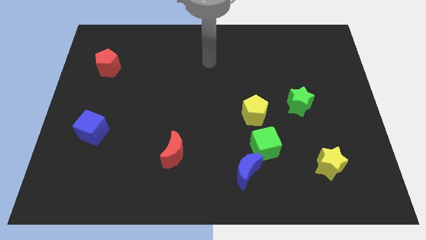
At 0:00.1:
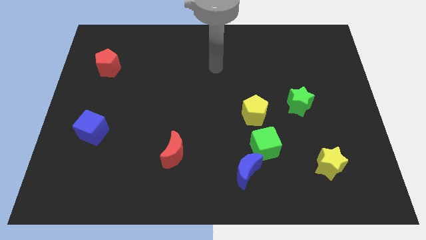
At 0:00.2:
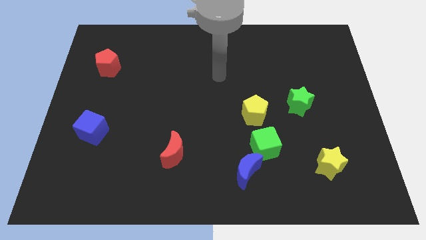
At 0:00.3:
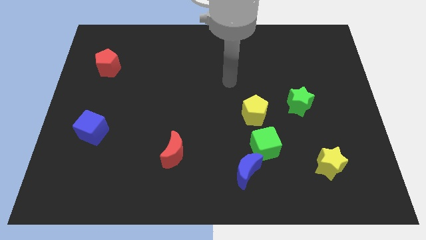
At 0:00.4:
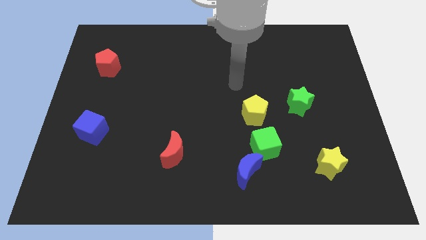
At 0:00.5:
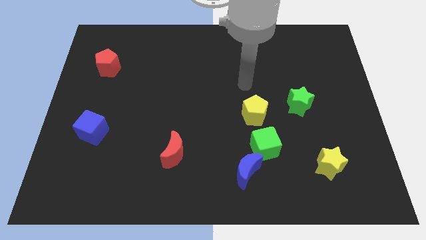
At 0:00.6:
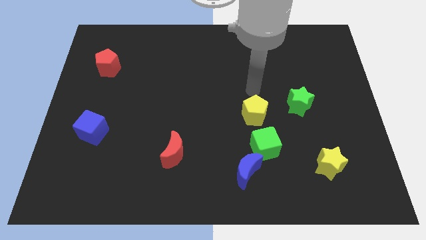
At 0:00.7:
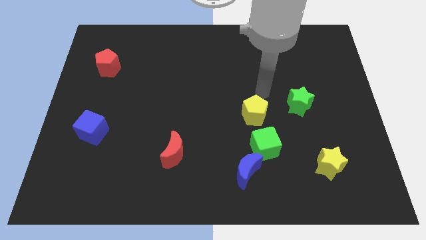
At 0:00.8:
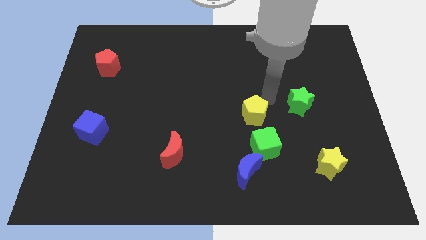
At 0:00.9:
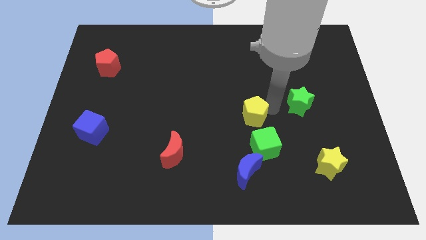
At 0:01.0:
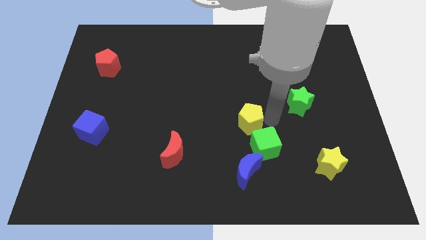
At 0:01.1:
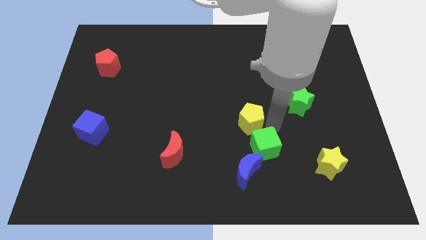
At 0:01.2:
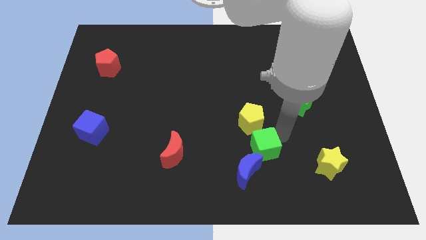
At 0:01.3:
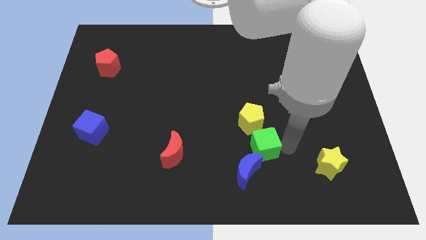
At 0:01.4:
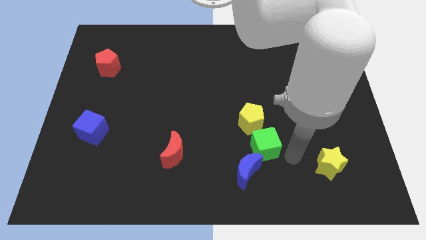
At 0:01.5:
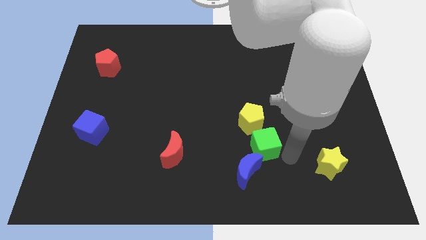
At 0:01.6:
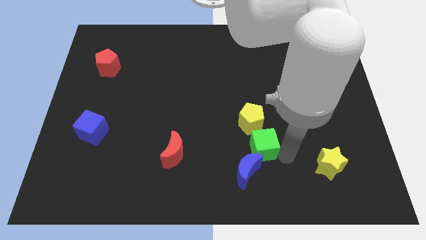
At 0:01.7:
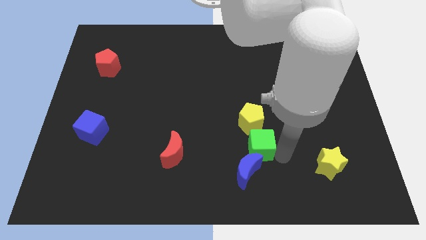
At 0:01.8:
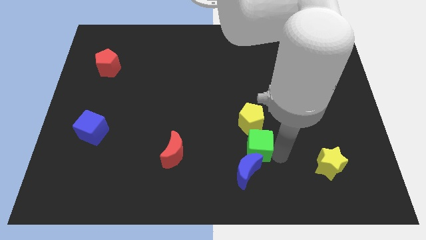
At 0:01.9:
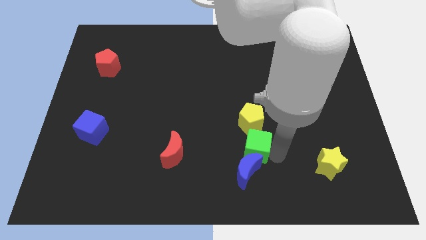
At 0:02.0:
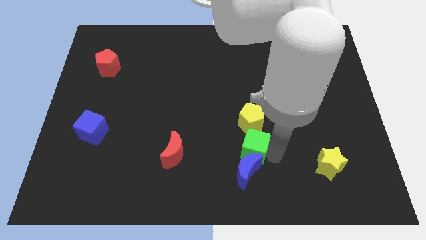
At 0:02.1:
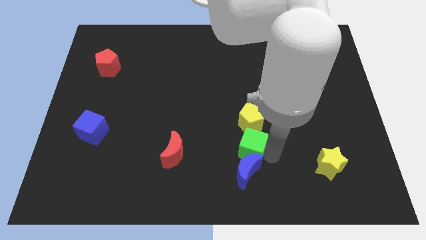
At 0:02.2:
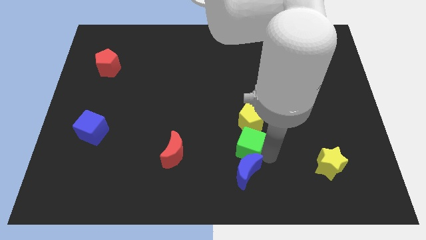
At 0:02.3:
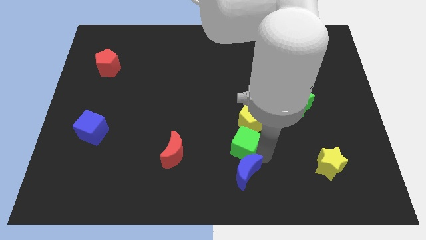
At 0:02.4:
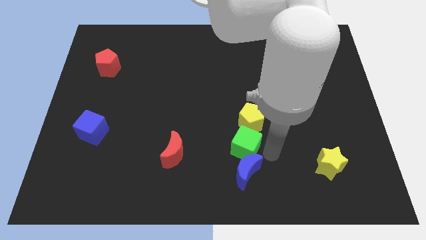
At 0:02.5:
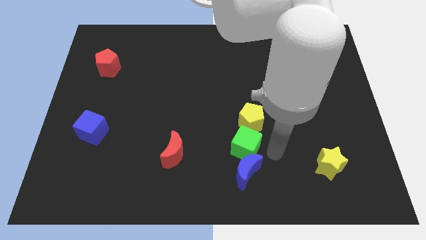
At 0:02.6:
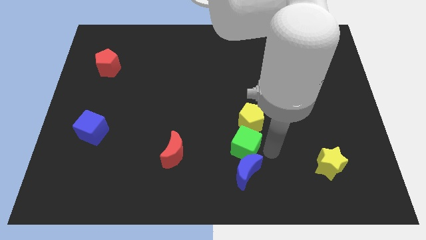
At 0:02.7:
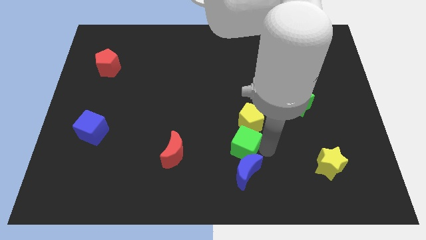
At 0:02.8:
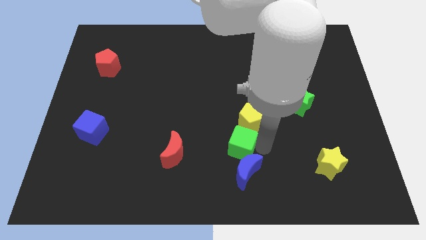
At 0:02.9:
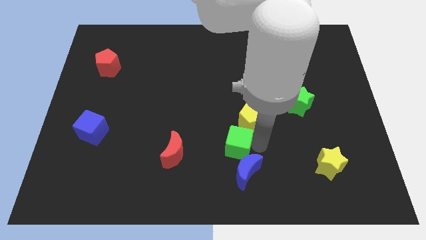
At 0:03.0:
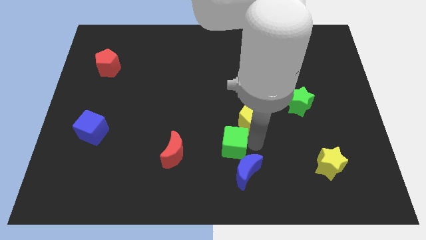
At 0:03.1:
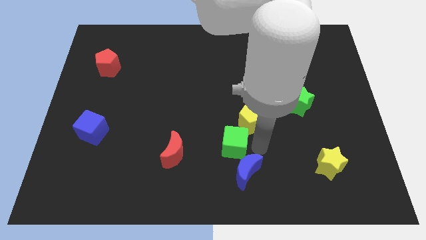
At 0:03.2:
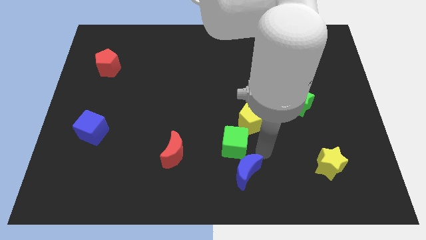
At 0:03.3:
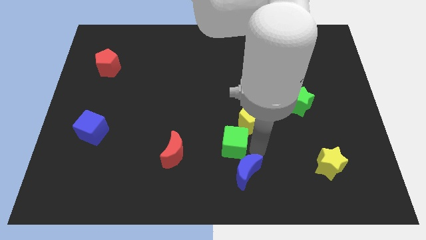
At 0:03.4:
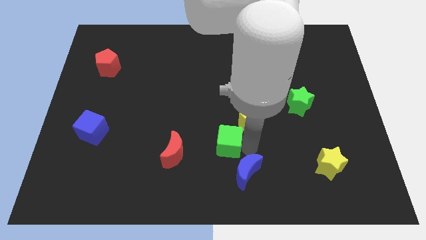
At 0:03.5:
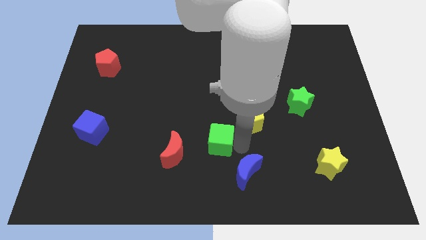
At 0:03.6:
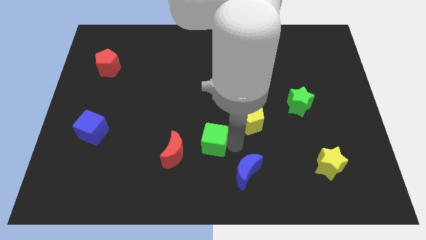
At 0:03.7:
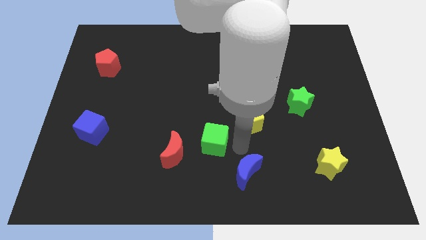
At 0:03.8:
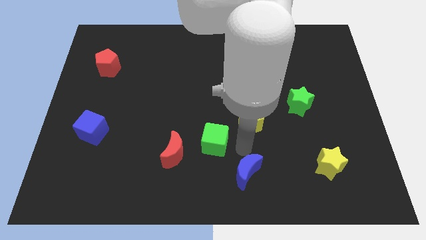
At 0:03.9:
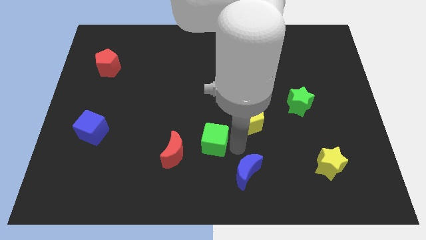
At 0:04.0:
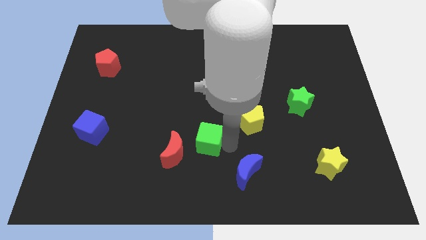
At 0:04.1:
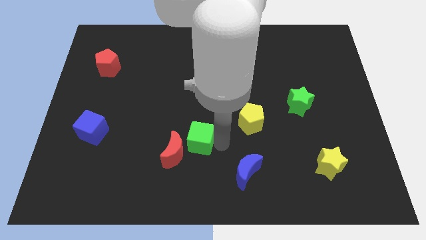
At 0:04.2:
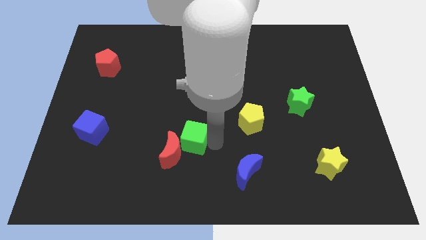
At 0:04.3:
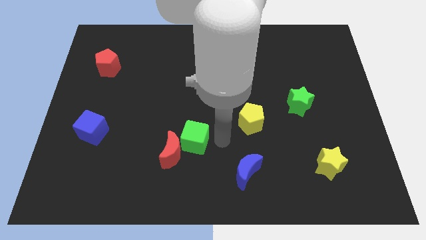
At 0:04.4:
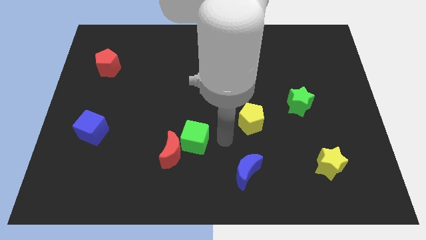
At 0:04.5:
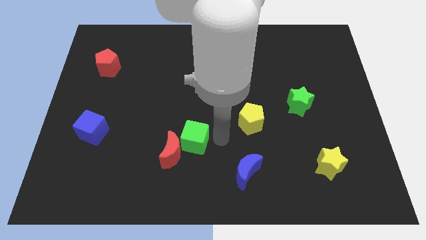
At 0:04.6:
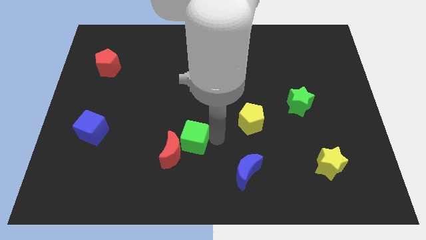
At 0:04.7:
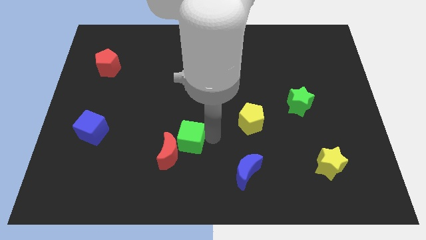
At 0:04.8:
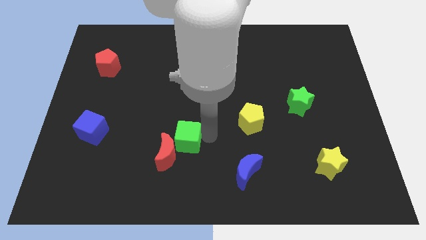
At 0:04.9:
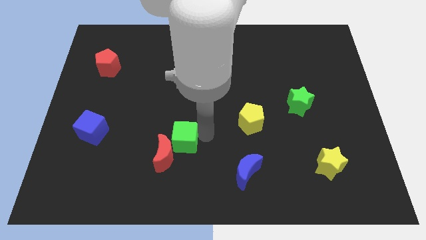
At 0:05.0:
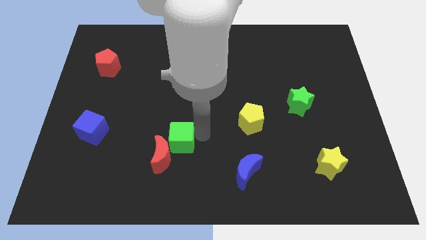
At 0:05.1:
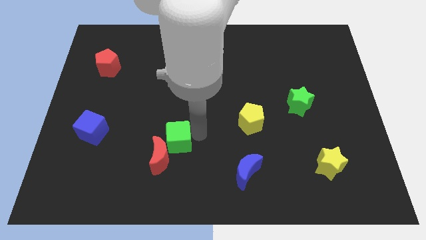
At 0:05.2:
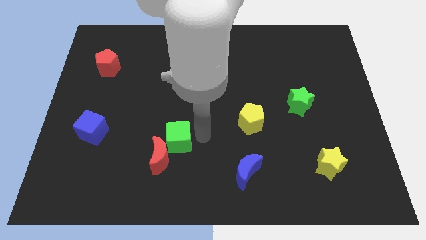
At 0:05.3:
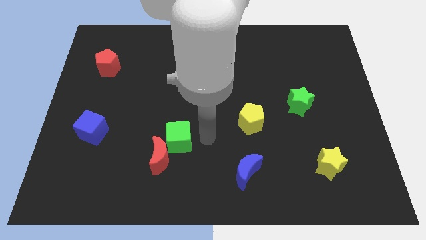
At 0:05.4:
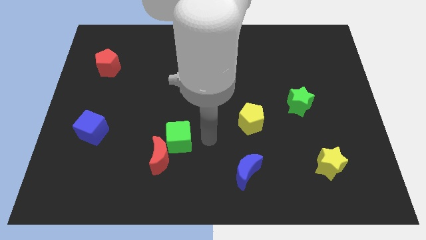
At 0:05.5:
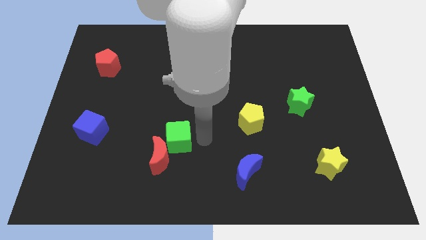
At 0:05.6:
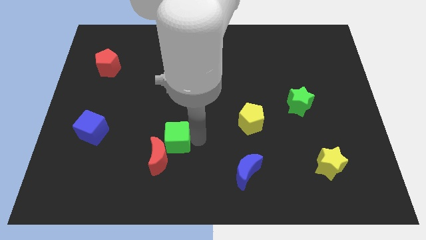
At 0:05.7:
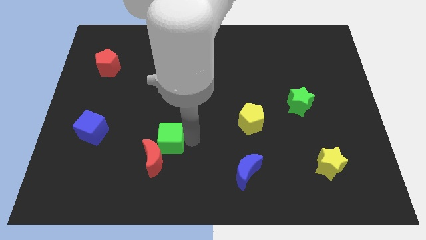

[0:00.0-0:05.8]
slide the green cube left

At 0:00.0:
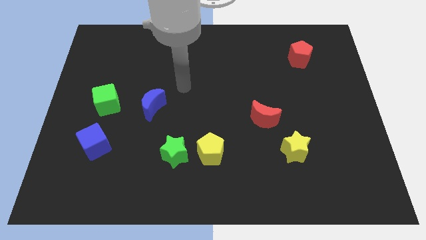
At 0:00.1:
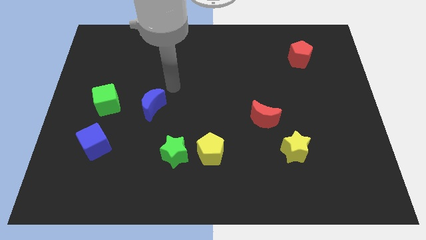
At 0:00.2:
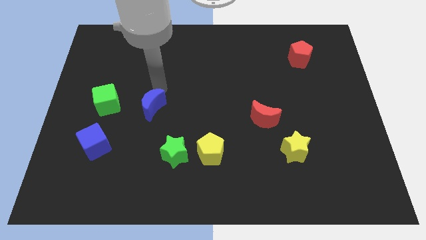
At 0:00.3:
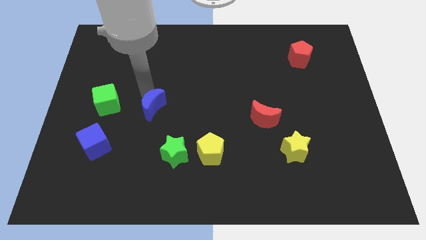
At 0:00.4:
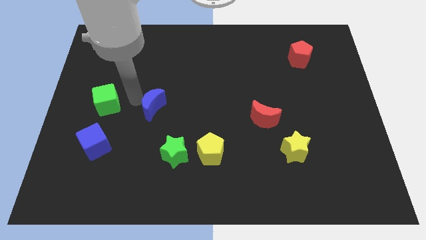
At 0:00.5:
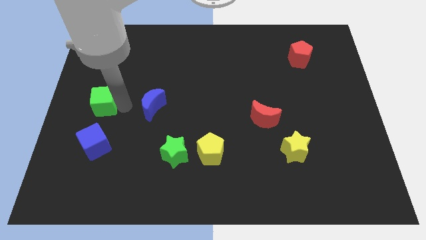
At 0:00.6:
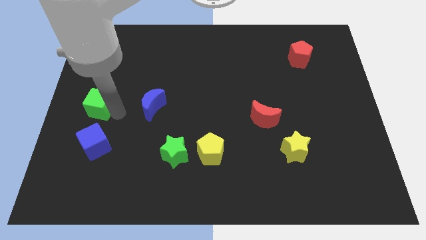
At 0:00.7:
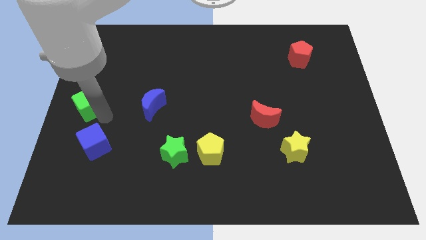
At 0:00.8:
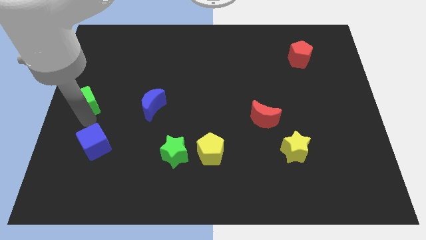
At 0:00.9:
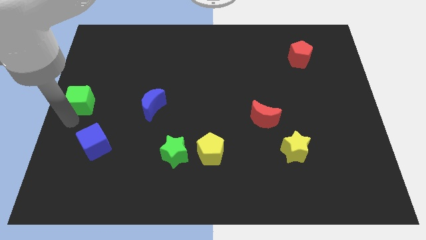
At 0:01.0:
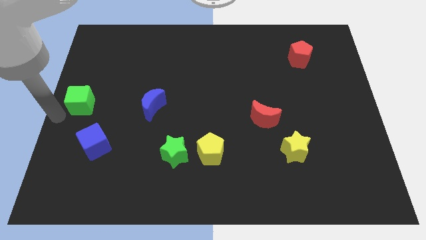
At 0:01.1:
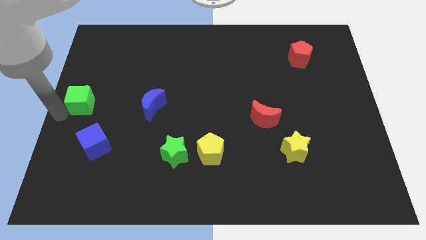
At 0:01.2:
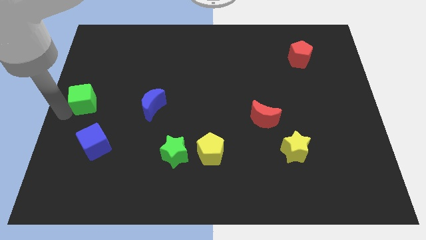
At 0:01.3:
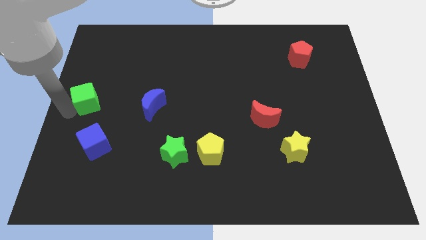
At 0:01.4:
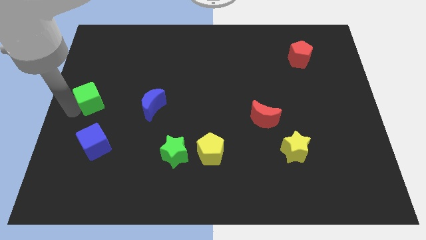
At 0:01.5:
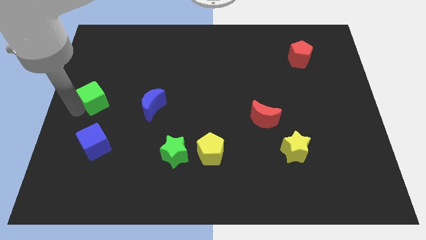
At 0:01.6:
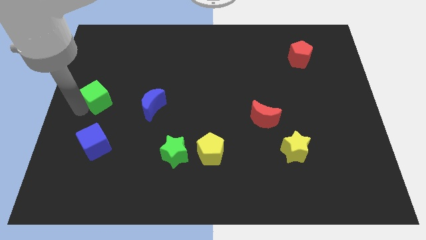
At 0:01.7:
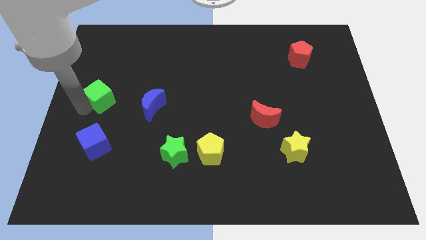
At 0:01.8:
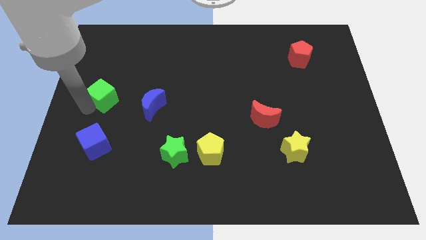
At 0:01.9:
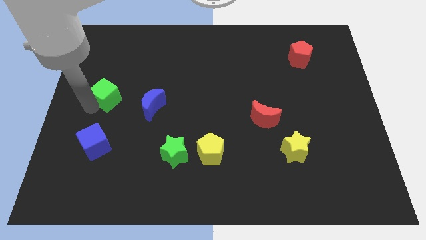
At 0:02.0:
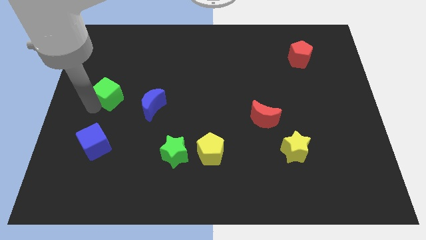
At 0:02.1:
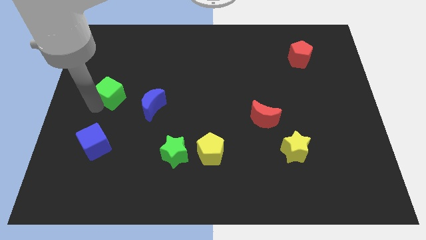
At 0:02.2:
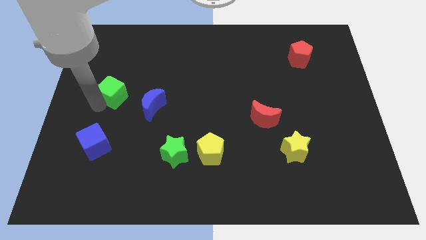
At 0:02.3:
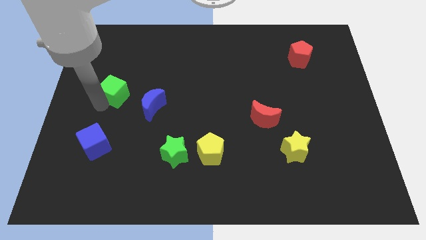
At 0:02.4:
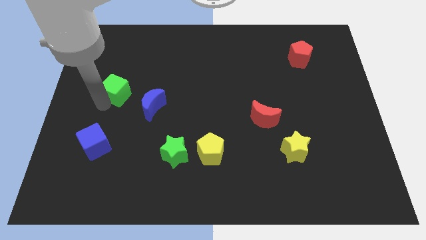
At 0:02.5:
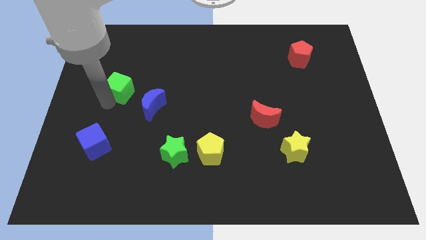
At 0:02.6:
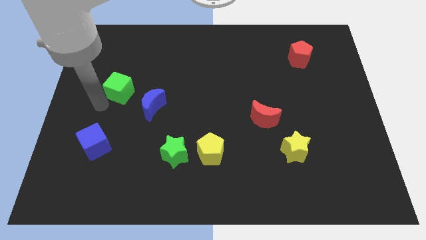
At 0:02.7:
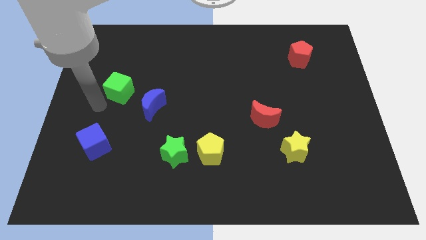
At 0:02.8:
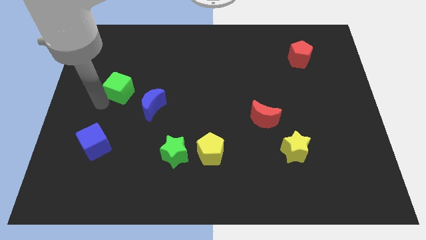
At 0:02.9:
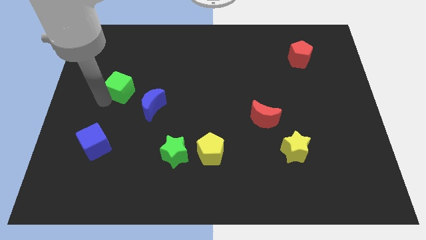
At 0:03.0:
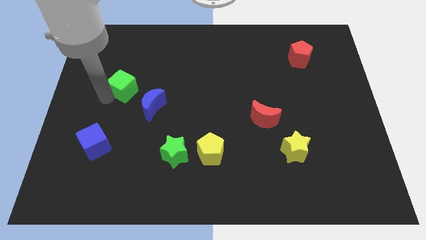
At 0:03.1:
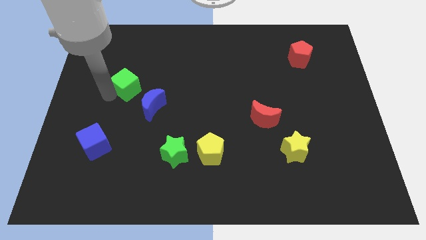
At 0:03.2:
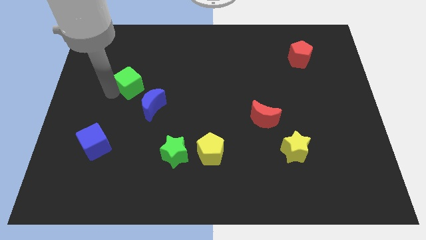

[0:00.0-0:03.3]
slightly push the green cube diagonally up and right
